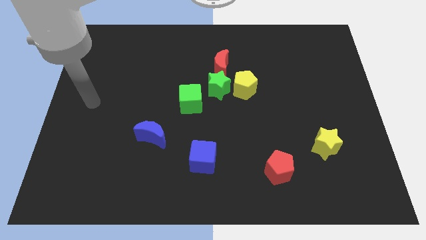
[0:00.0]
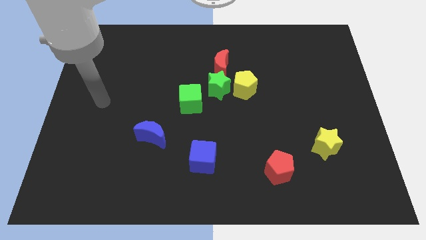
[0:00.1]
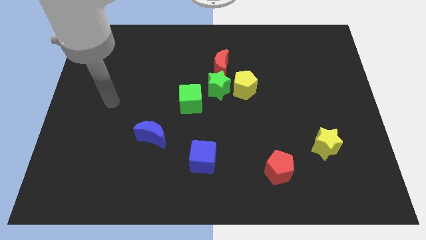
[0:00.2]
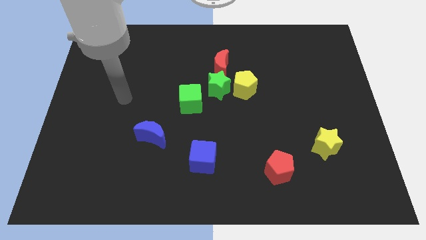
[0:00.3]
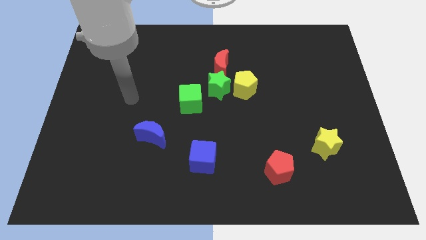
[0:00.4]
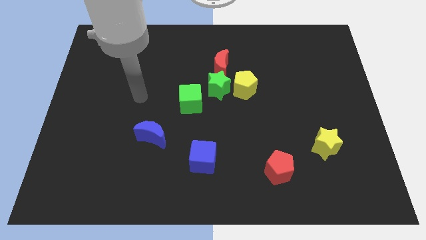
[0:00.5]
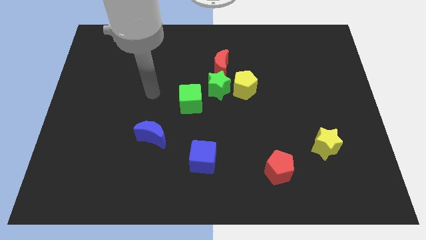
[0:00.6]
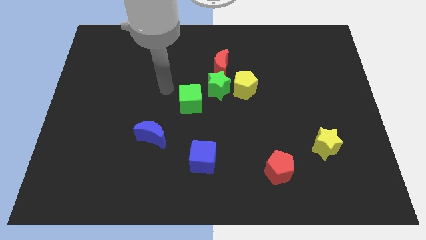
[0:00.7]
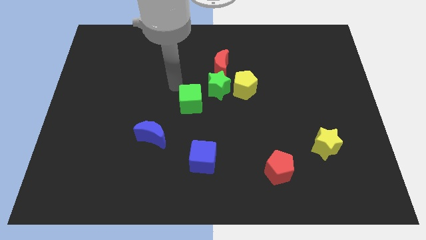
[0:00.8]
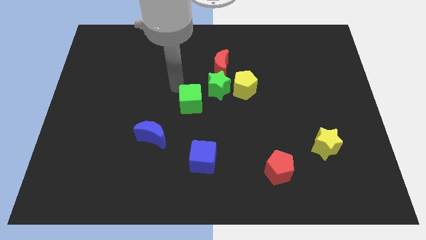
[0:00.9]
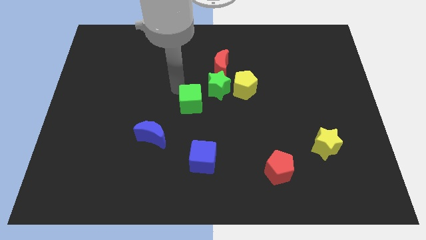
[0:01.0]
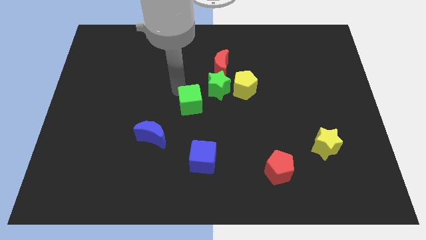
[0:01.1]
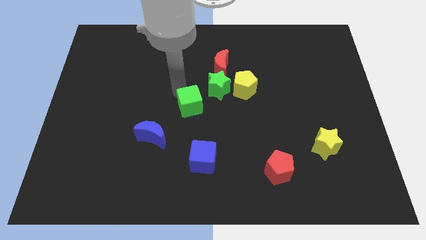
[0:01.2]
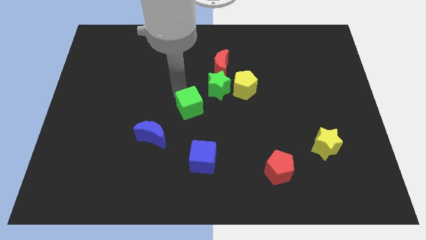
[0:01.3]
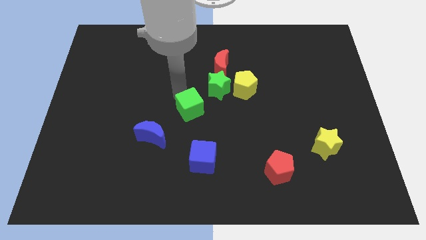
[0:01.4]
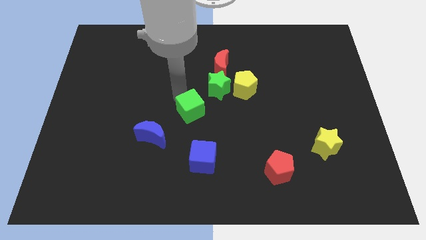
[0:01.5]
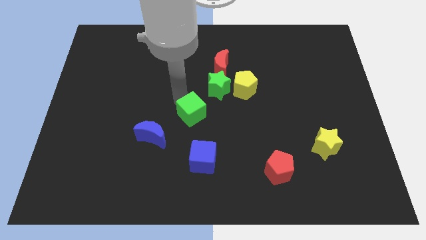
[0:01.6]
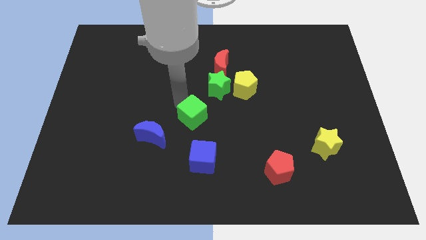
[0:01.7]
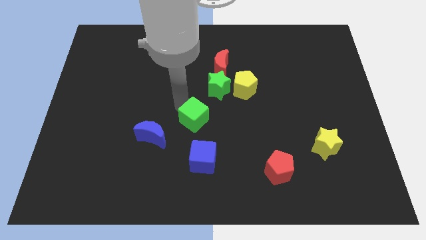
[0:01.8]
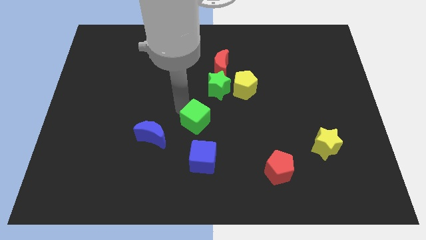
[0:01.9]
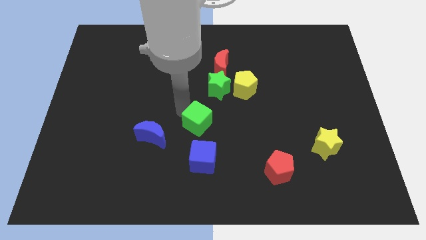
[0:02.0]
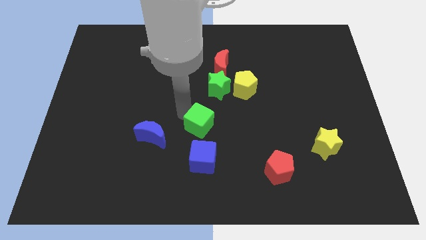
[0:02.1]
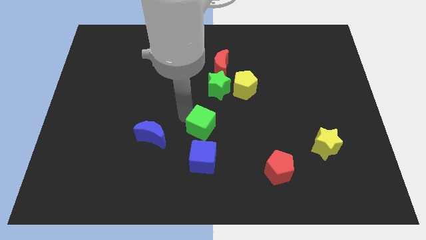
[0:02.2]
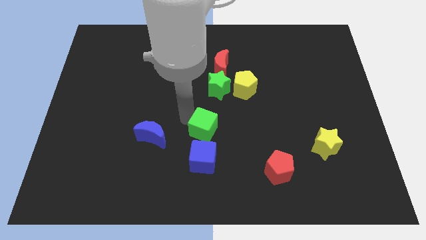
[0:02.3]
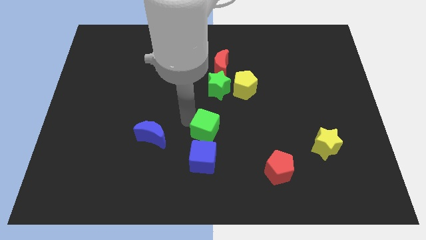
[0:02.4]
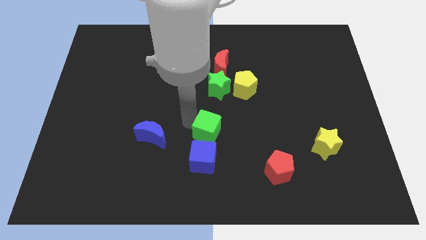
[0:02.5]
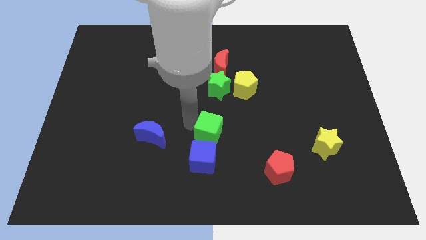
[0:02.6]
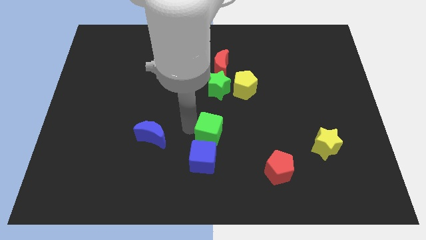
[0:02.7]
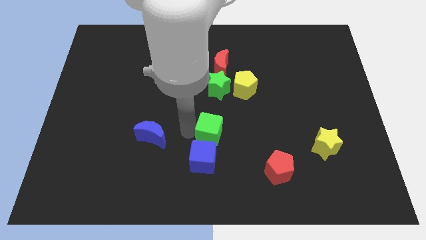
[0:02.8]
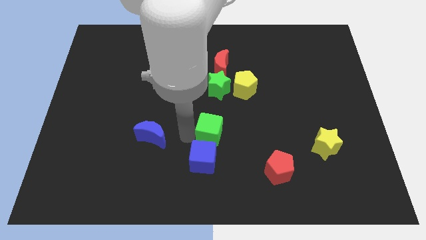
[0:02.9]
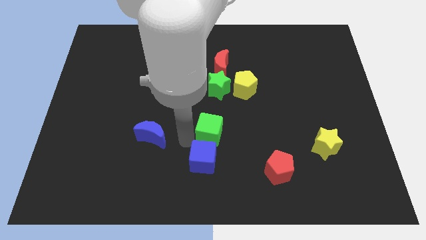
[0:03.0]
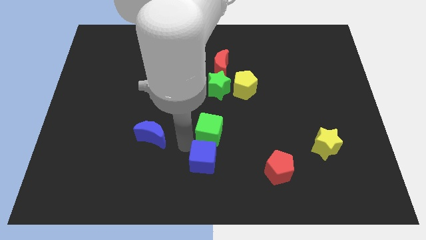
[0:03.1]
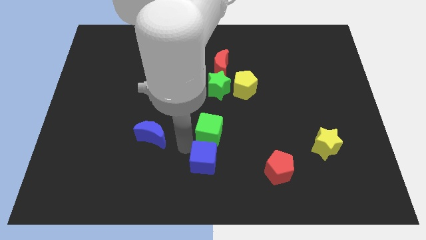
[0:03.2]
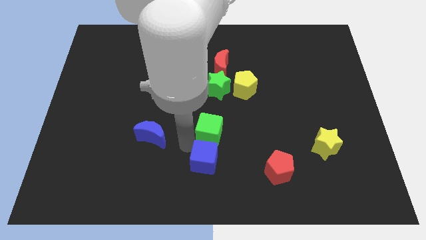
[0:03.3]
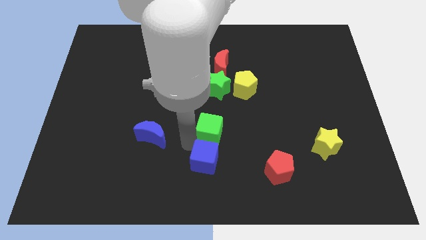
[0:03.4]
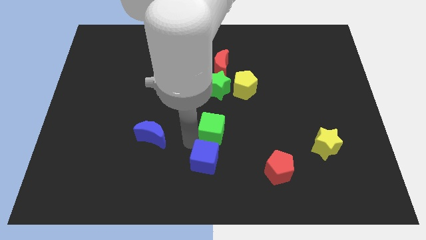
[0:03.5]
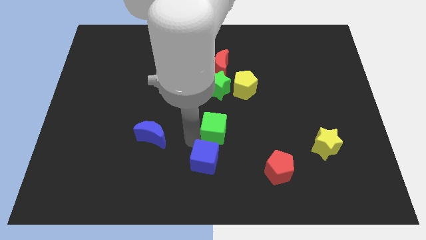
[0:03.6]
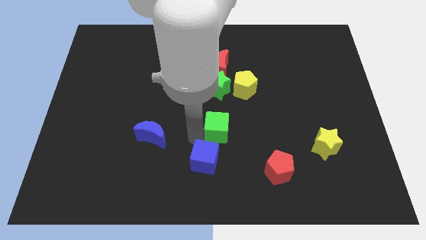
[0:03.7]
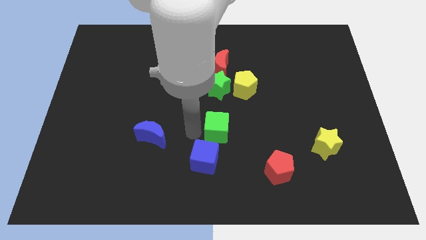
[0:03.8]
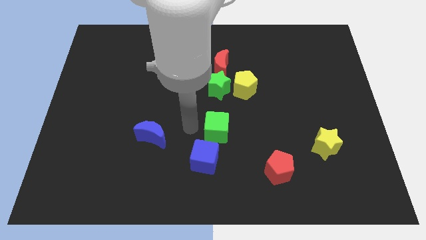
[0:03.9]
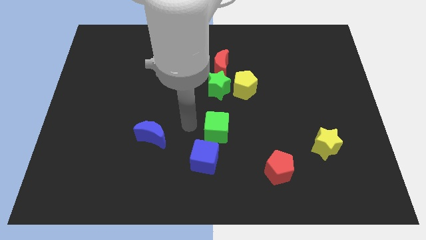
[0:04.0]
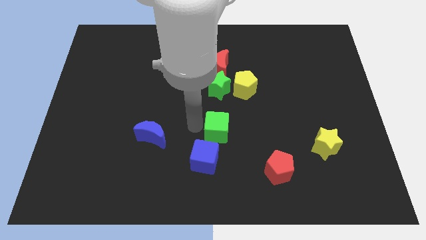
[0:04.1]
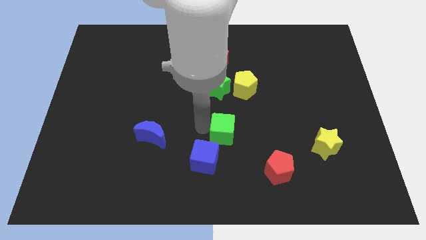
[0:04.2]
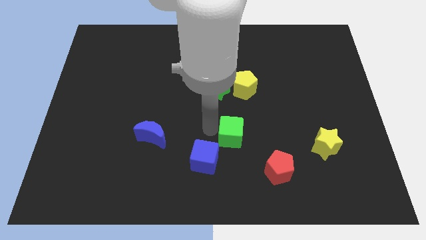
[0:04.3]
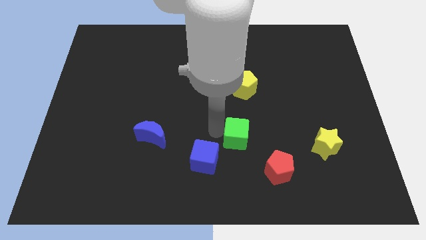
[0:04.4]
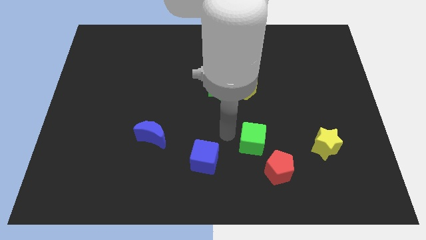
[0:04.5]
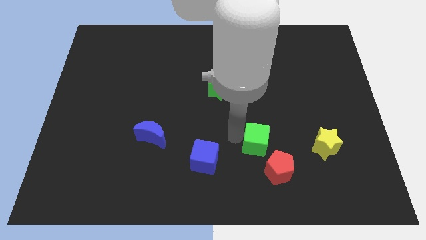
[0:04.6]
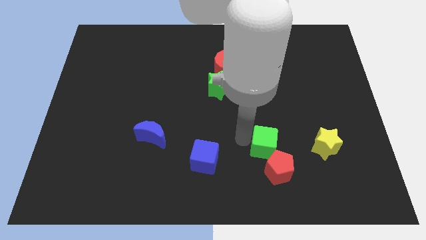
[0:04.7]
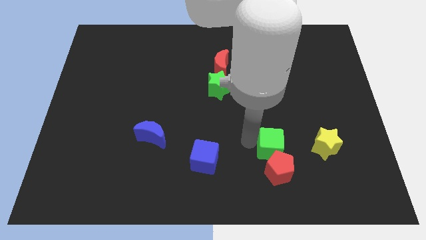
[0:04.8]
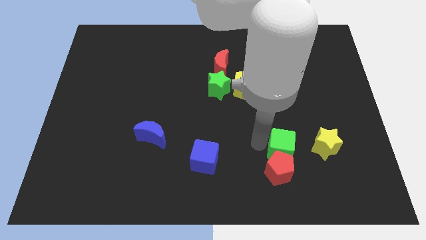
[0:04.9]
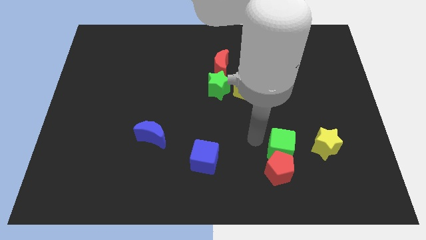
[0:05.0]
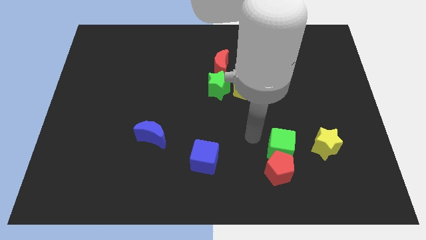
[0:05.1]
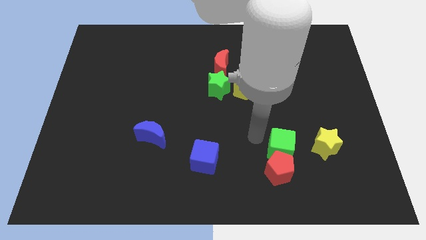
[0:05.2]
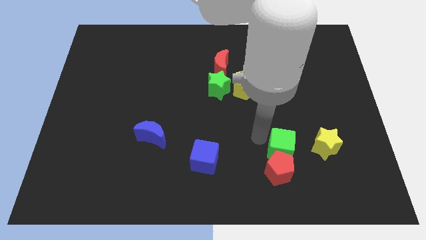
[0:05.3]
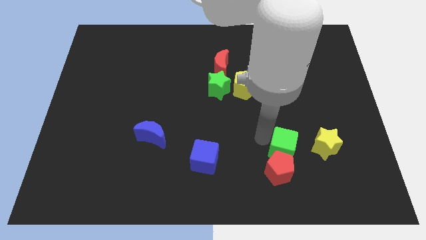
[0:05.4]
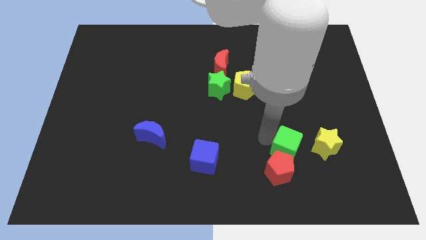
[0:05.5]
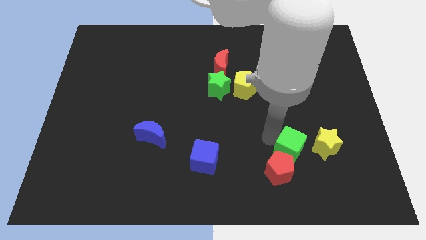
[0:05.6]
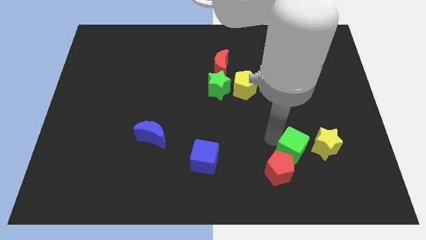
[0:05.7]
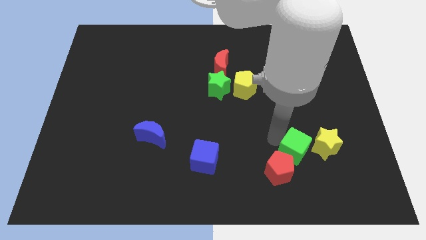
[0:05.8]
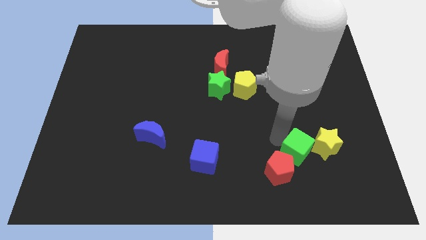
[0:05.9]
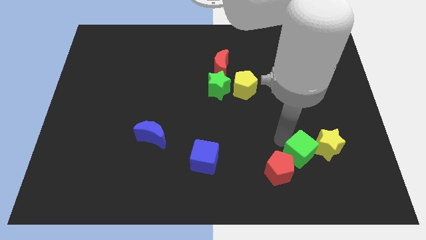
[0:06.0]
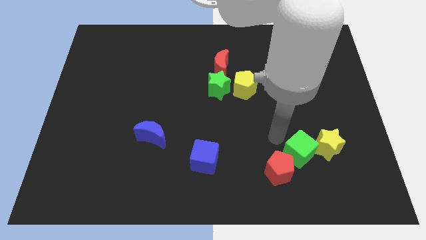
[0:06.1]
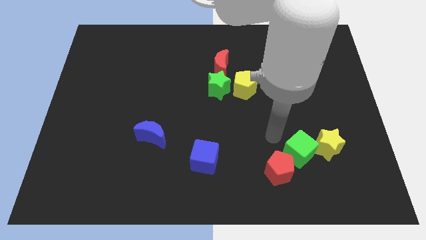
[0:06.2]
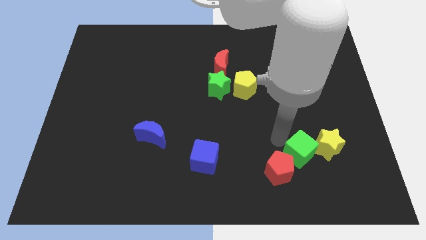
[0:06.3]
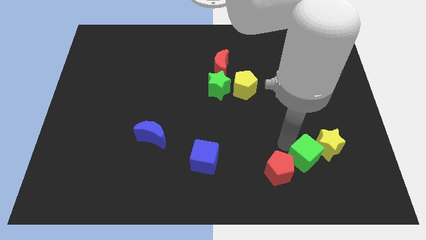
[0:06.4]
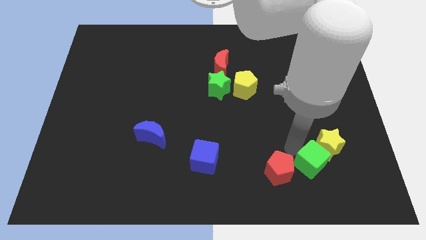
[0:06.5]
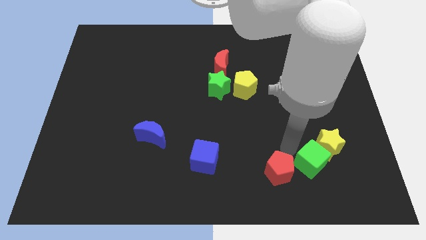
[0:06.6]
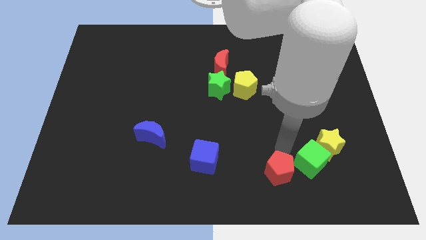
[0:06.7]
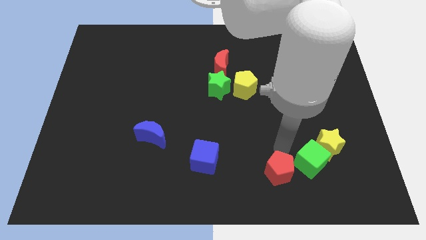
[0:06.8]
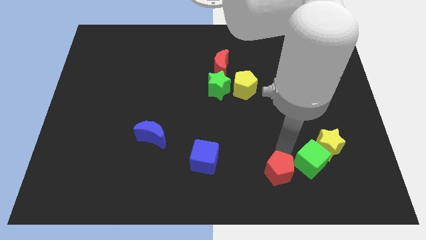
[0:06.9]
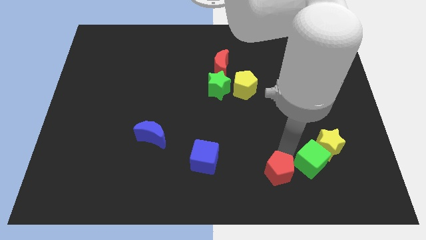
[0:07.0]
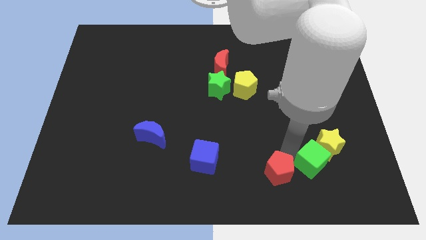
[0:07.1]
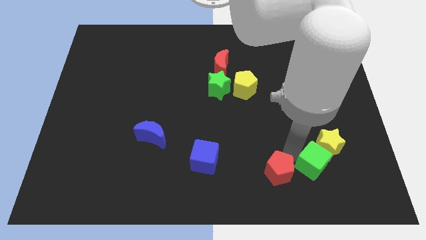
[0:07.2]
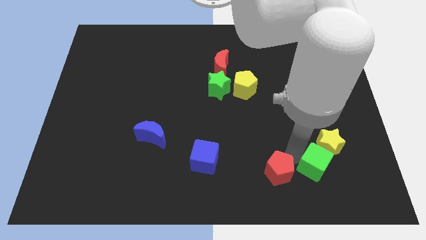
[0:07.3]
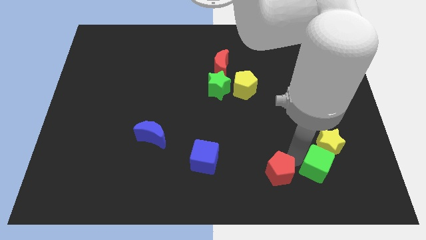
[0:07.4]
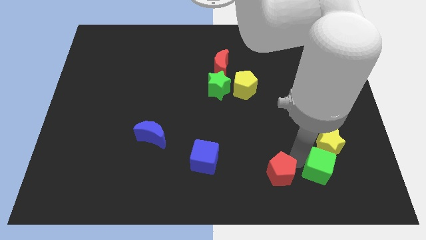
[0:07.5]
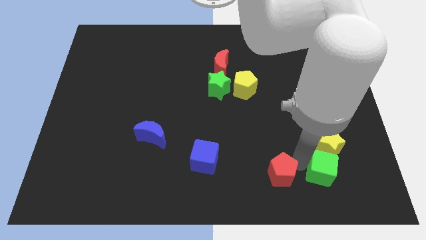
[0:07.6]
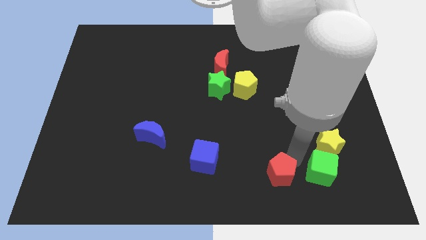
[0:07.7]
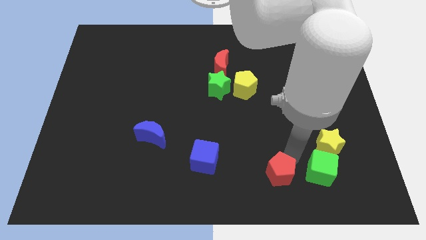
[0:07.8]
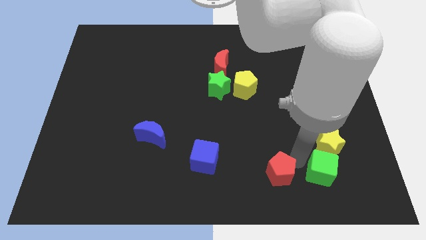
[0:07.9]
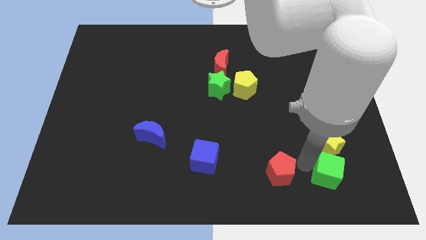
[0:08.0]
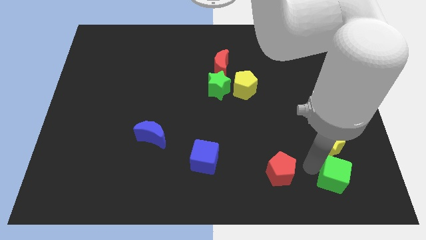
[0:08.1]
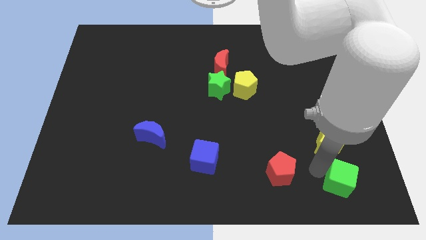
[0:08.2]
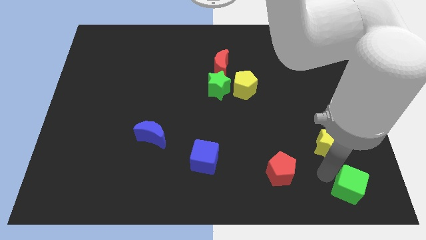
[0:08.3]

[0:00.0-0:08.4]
push the green cube to the bottom right of the board
